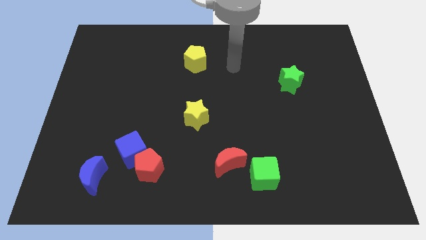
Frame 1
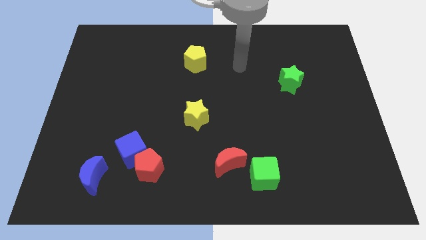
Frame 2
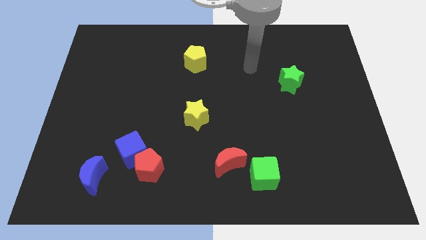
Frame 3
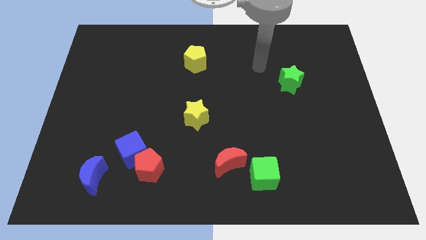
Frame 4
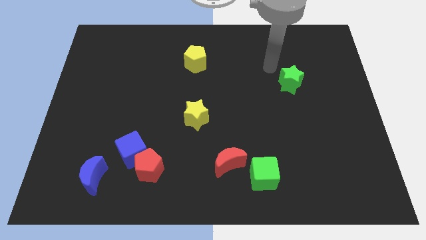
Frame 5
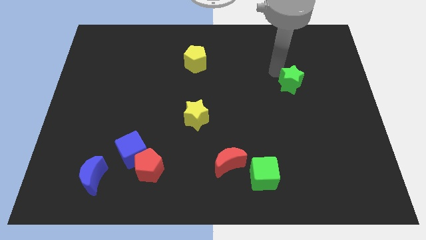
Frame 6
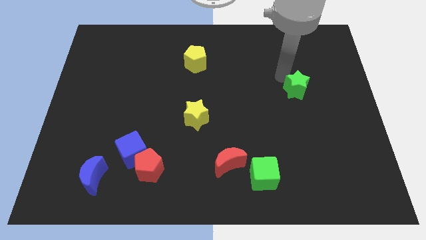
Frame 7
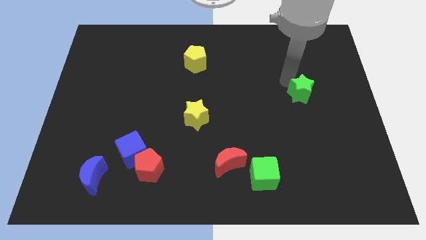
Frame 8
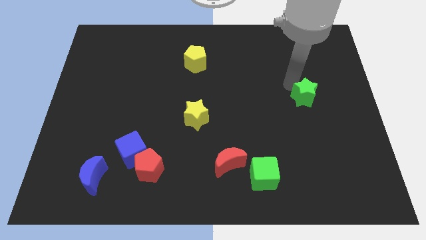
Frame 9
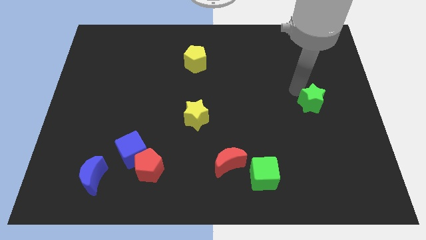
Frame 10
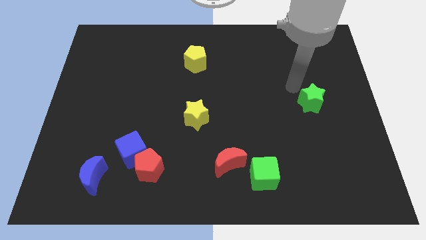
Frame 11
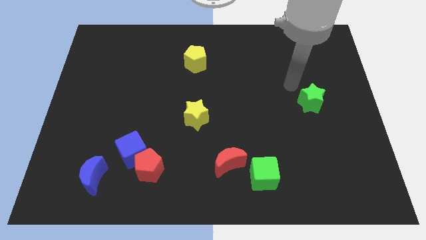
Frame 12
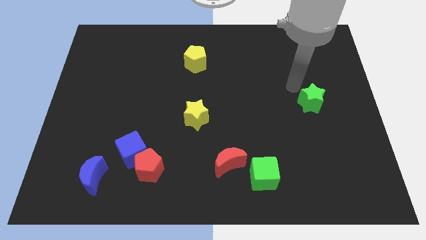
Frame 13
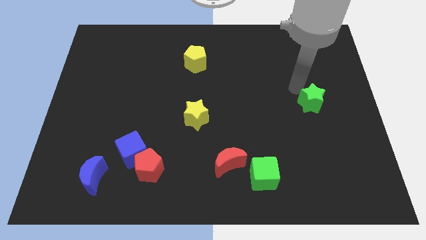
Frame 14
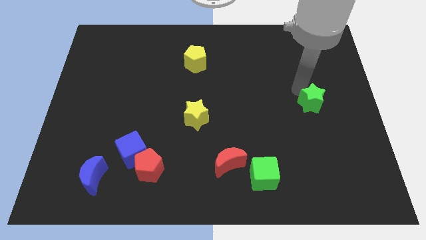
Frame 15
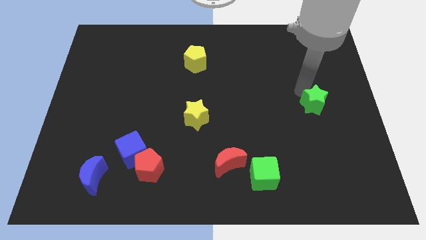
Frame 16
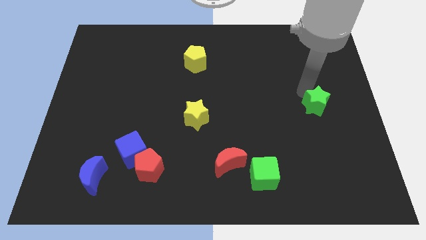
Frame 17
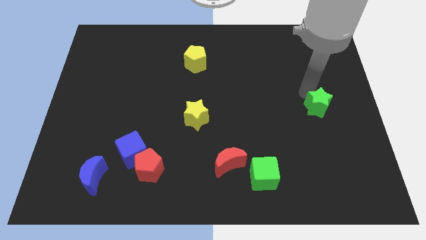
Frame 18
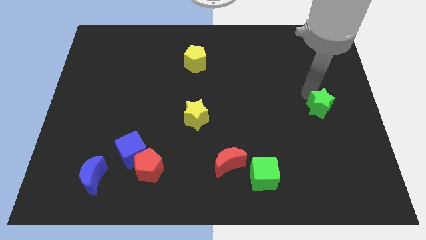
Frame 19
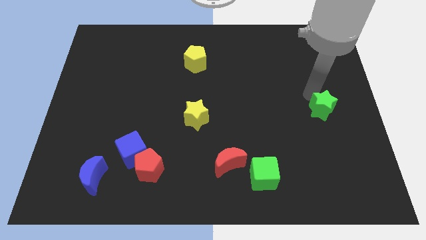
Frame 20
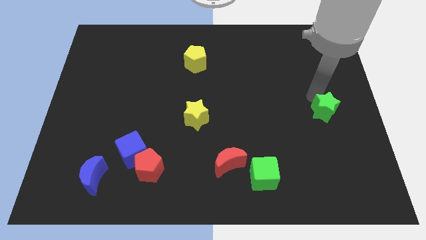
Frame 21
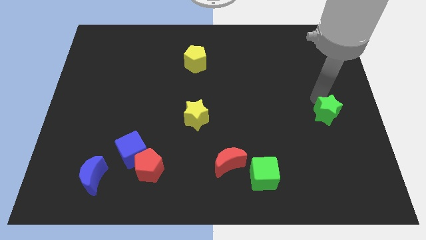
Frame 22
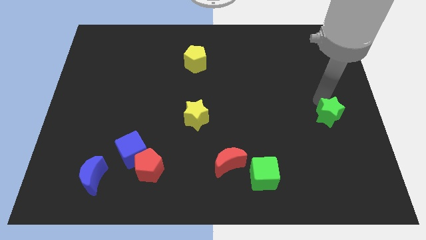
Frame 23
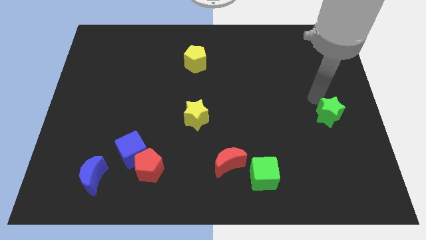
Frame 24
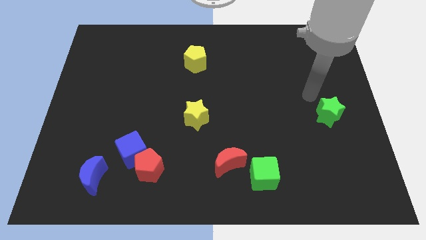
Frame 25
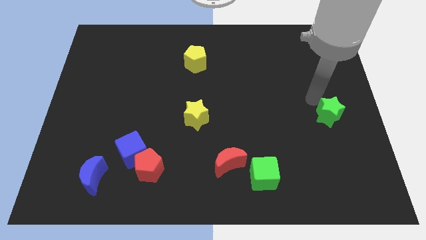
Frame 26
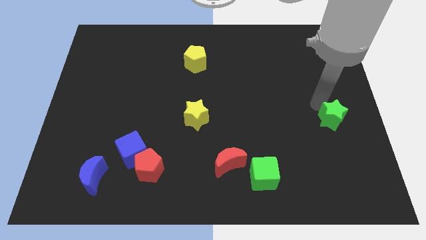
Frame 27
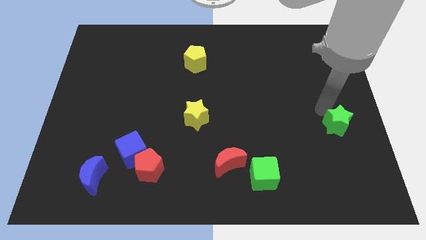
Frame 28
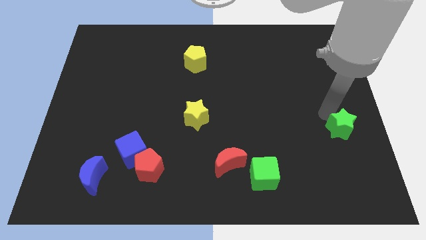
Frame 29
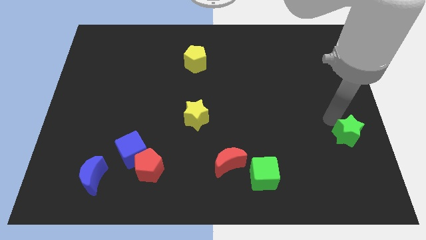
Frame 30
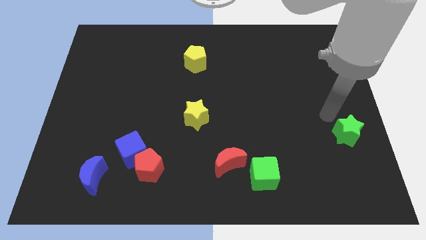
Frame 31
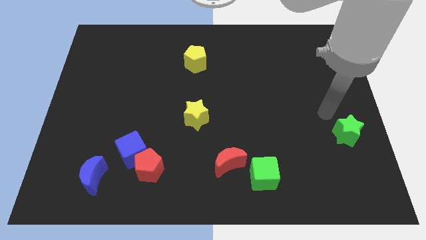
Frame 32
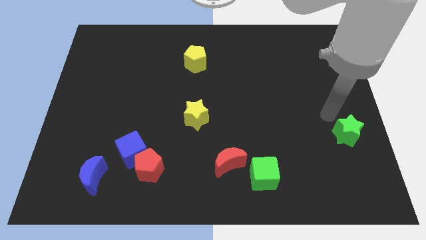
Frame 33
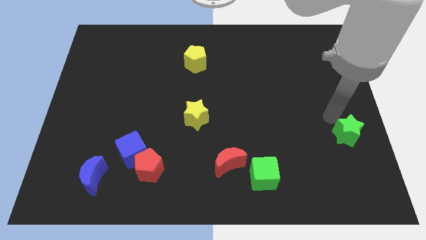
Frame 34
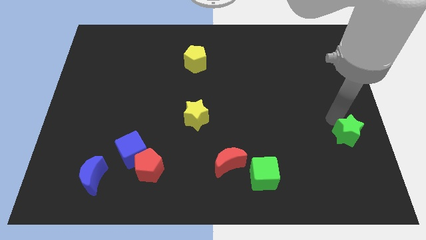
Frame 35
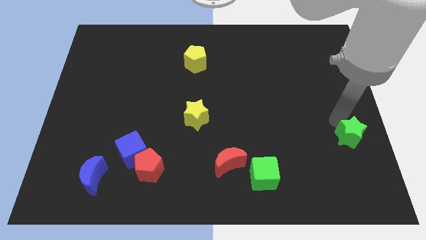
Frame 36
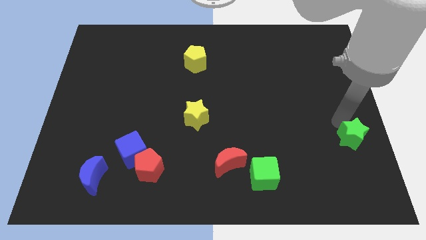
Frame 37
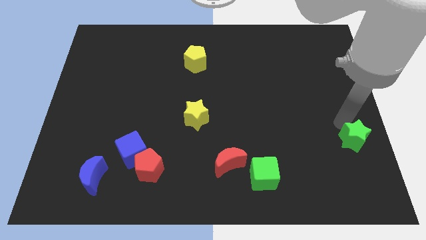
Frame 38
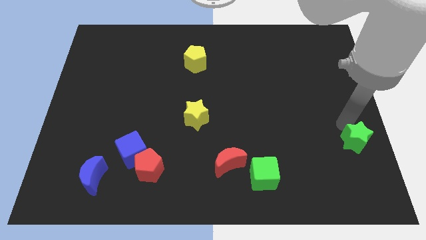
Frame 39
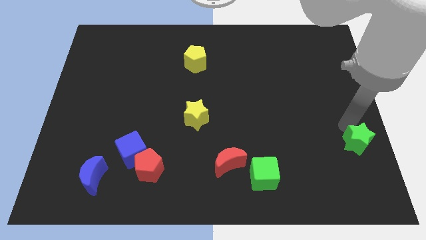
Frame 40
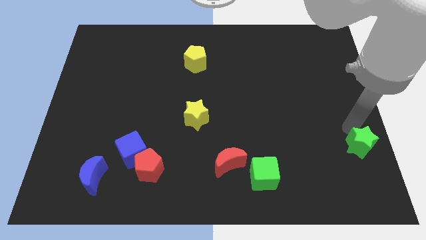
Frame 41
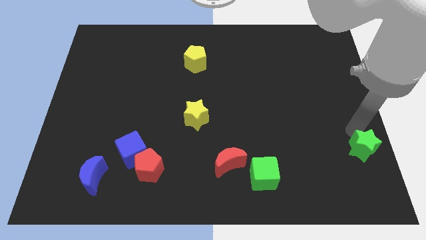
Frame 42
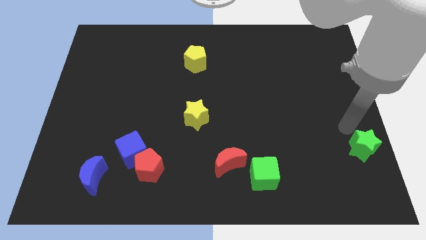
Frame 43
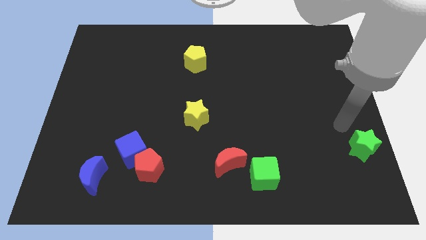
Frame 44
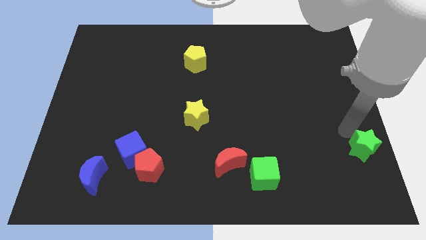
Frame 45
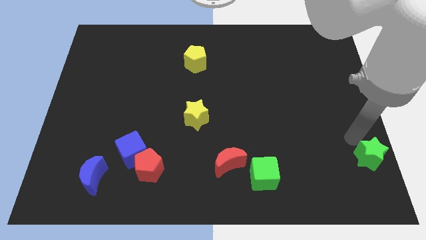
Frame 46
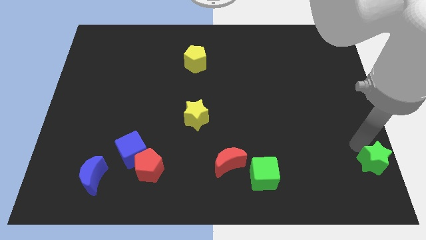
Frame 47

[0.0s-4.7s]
slide the green star to the lower right corner

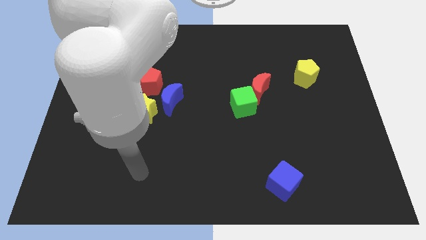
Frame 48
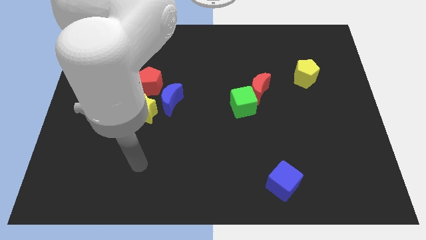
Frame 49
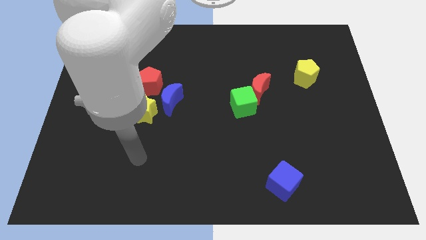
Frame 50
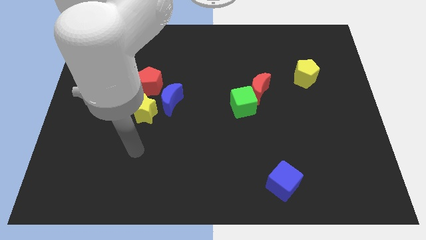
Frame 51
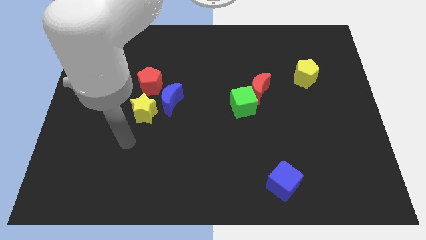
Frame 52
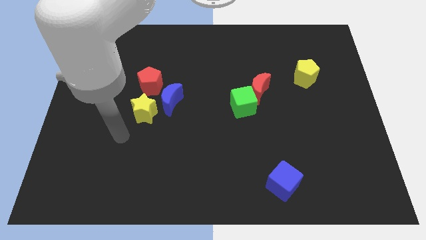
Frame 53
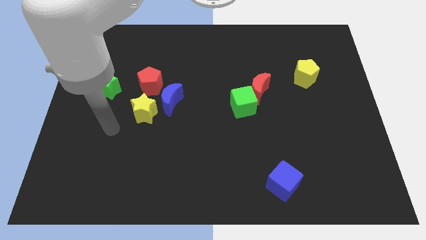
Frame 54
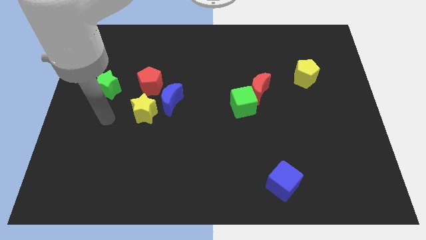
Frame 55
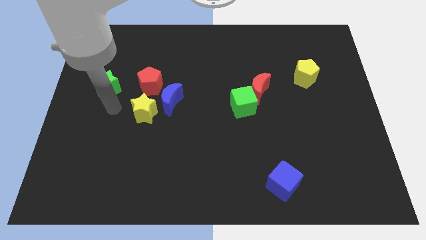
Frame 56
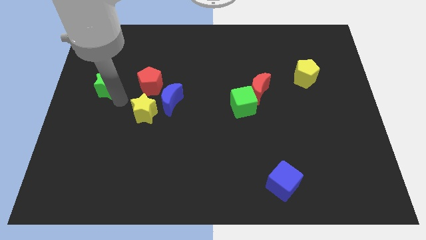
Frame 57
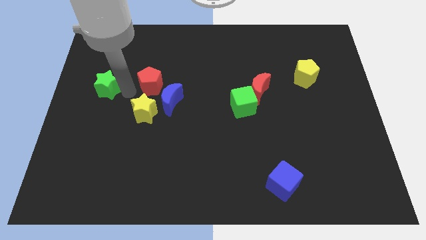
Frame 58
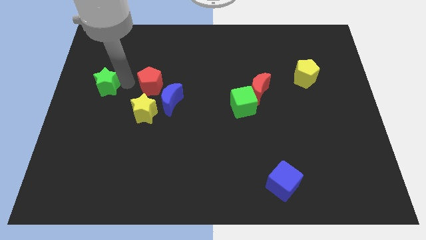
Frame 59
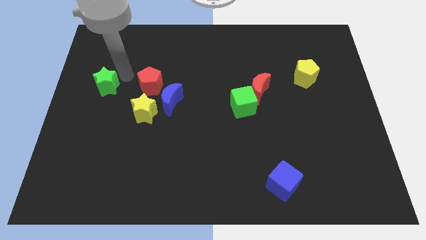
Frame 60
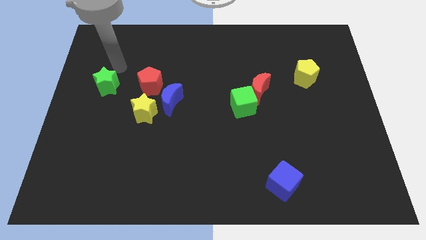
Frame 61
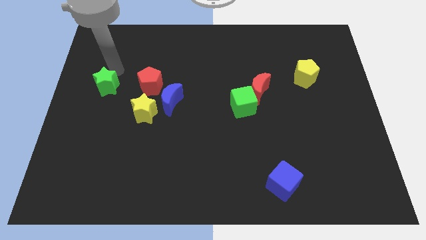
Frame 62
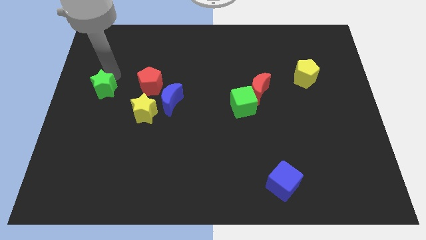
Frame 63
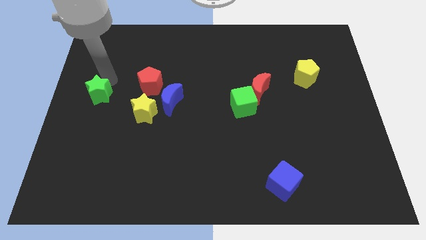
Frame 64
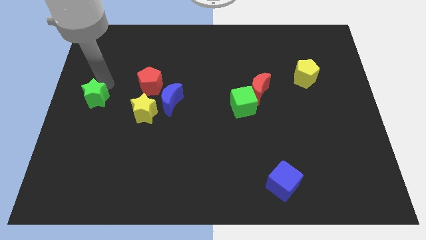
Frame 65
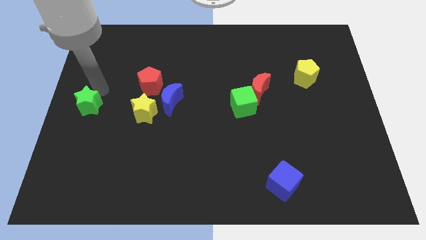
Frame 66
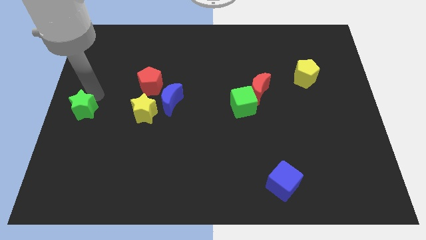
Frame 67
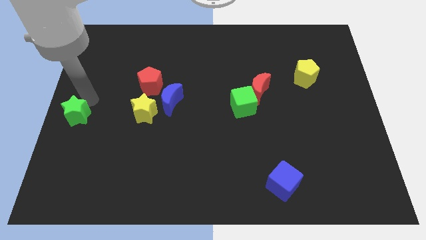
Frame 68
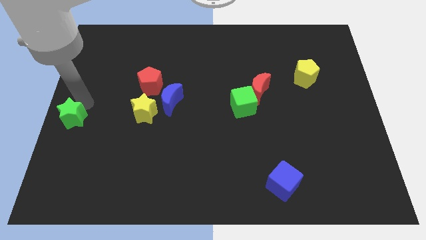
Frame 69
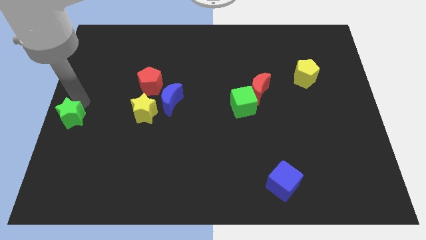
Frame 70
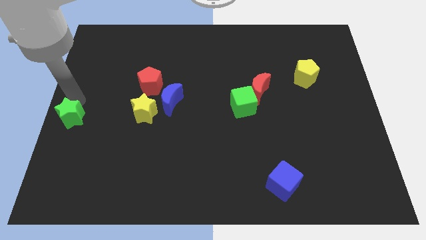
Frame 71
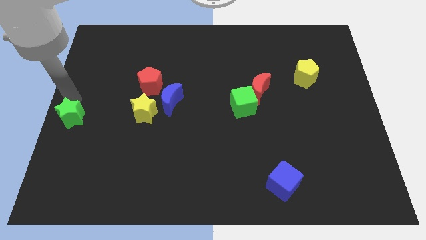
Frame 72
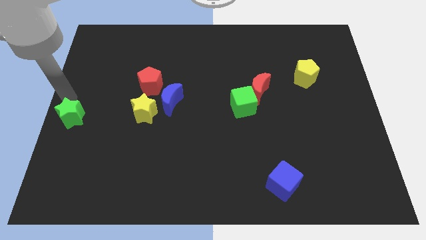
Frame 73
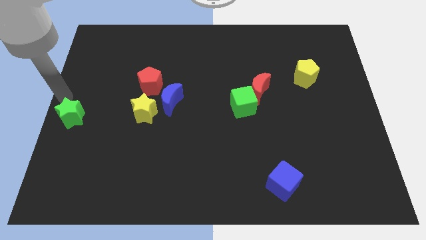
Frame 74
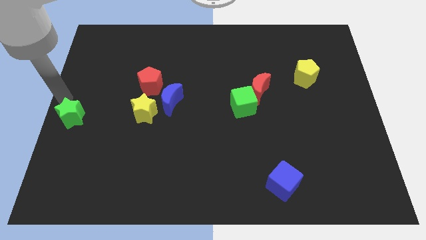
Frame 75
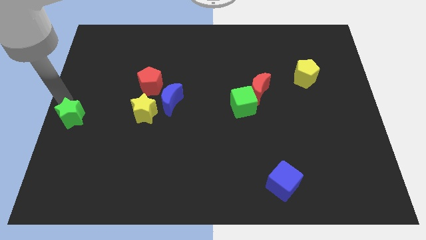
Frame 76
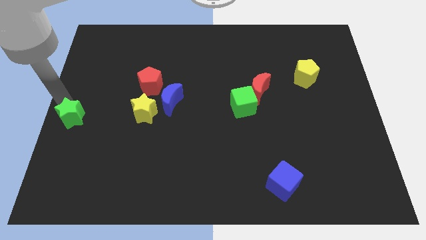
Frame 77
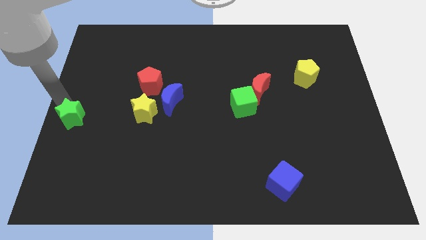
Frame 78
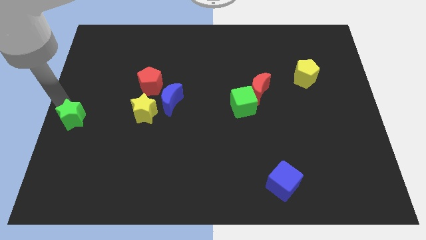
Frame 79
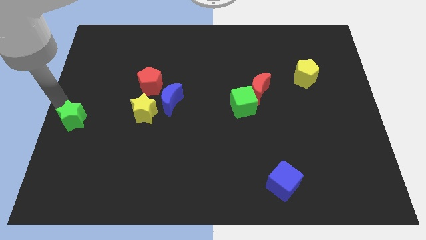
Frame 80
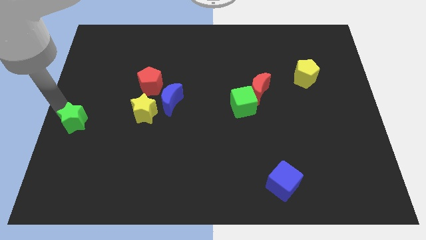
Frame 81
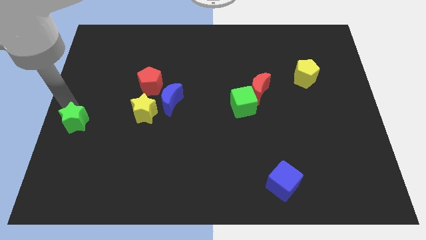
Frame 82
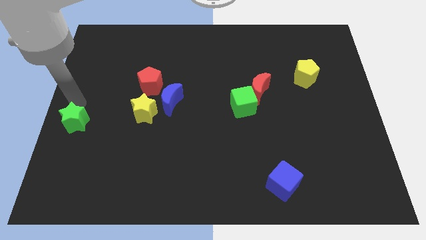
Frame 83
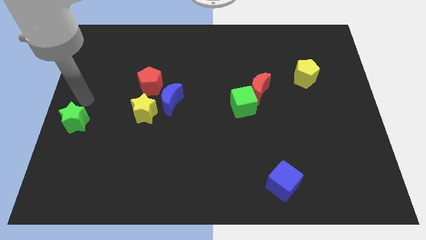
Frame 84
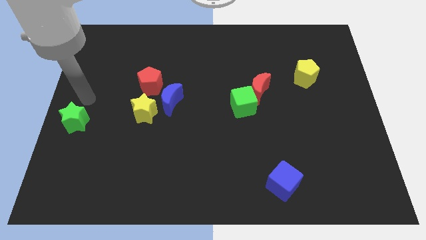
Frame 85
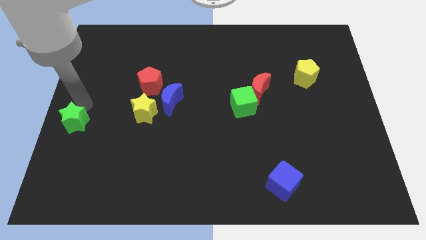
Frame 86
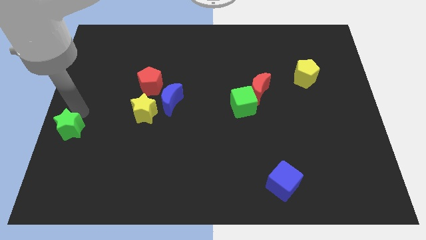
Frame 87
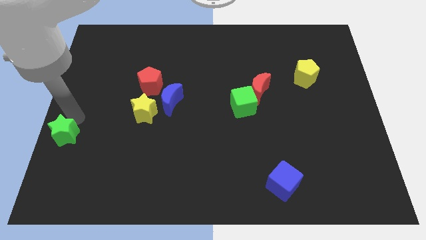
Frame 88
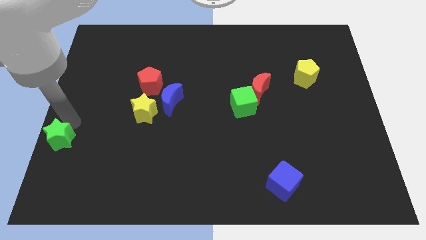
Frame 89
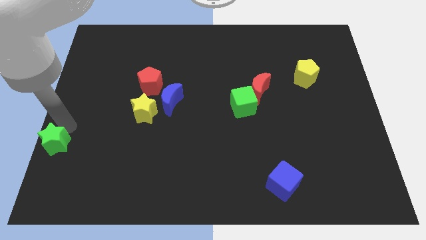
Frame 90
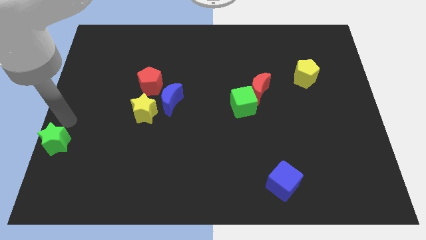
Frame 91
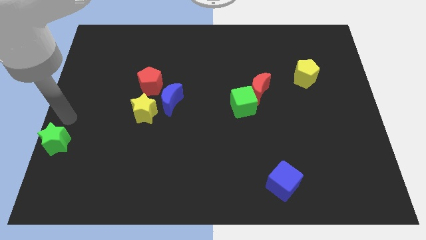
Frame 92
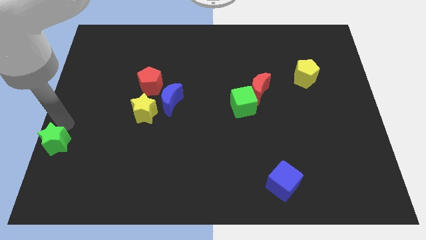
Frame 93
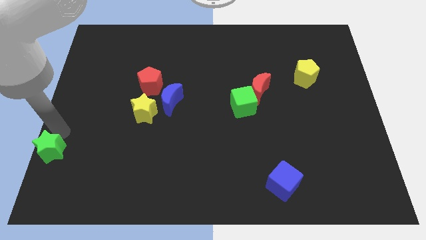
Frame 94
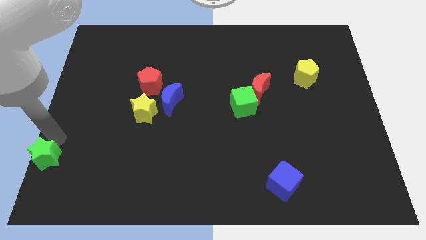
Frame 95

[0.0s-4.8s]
put the green star to the lower left corner
